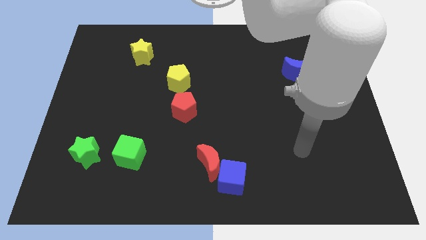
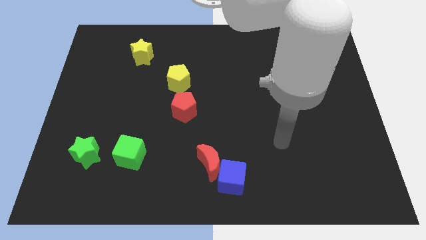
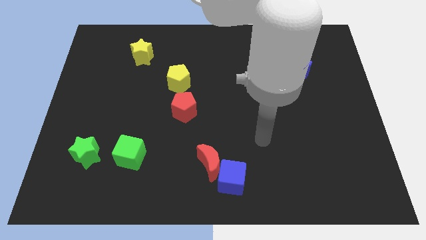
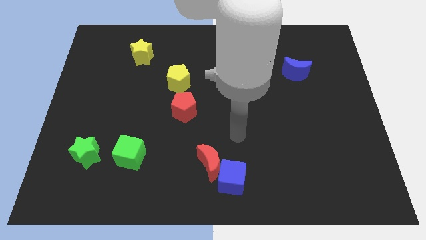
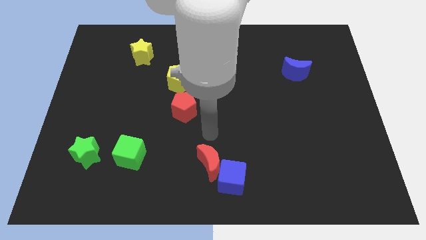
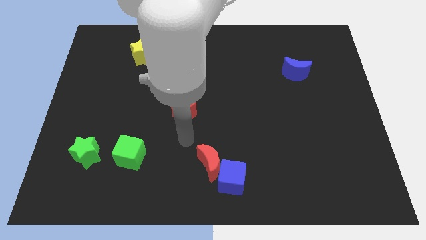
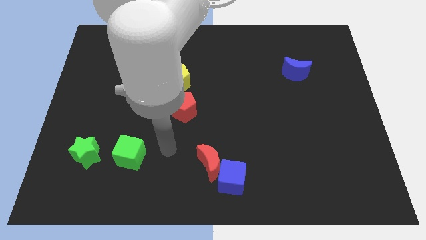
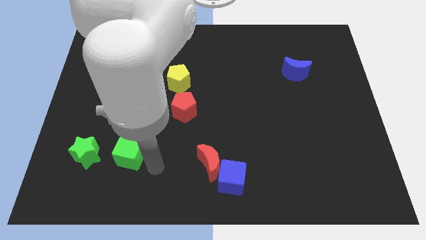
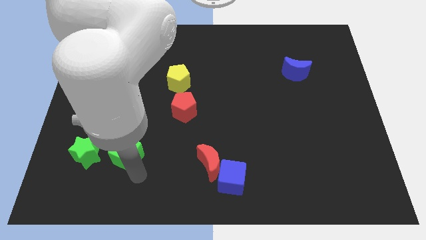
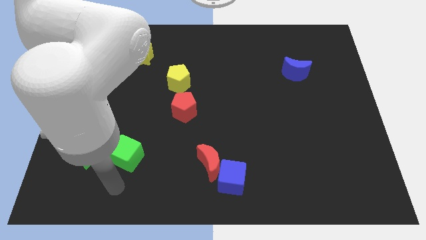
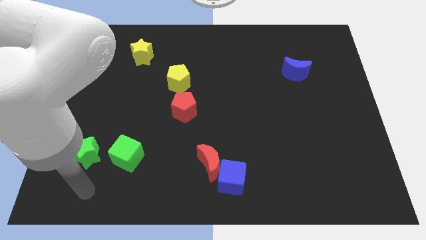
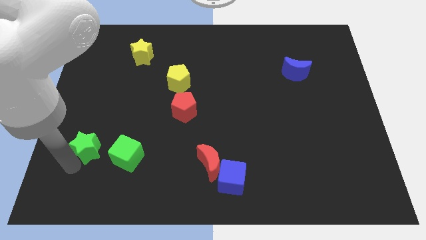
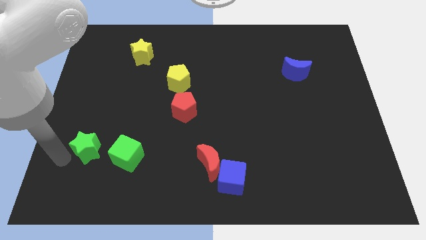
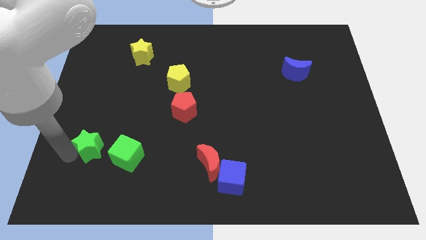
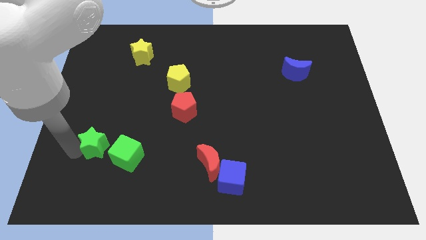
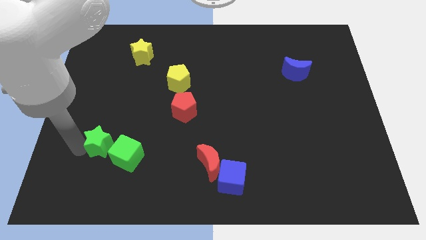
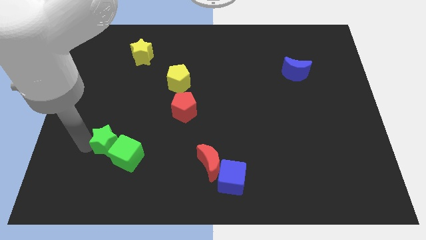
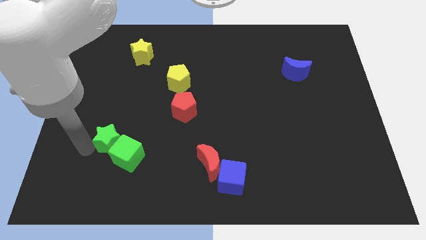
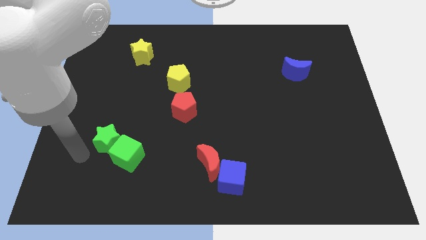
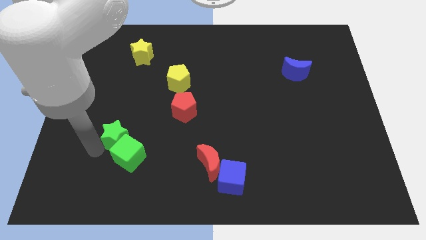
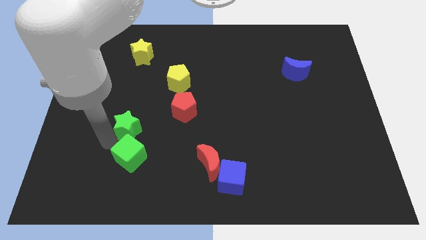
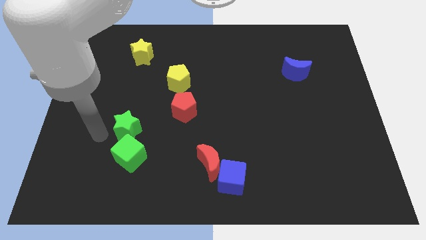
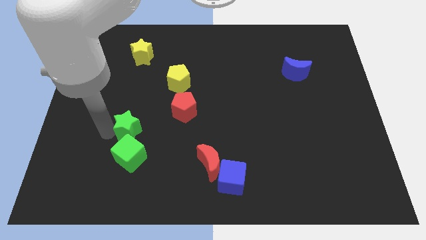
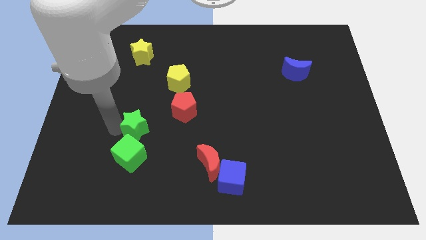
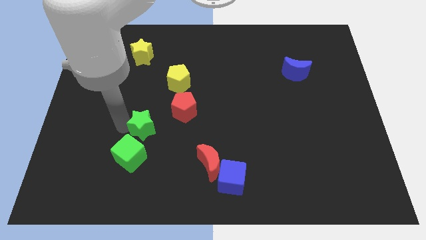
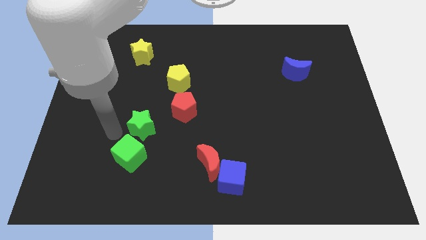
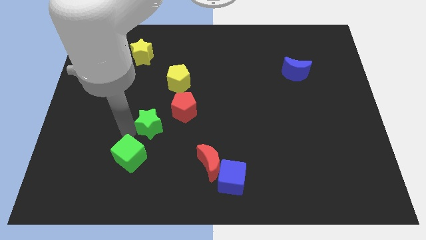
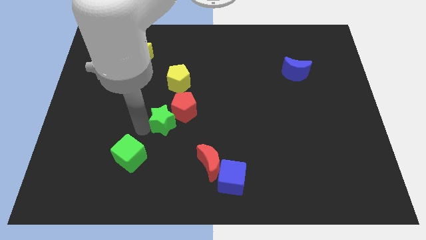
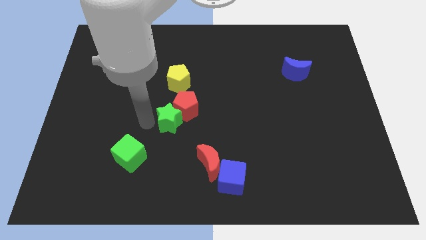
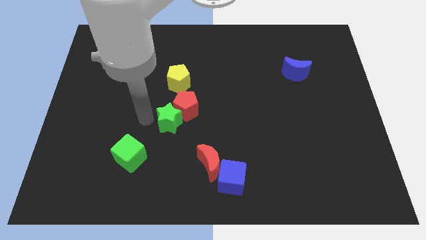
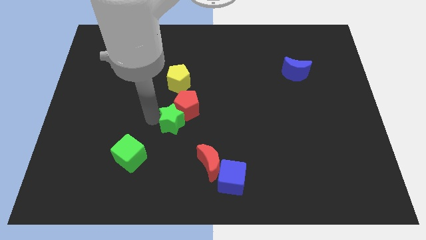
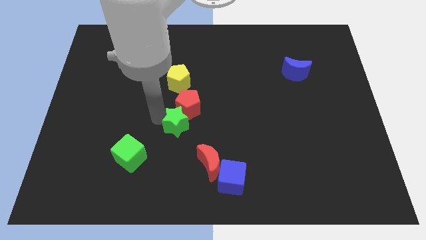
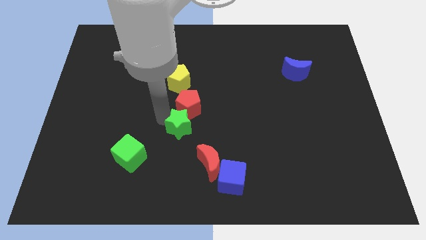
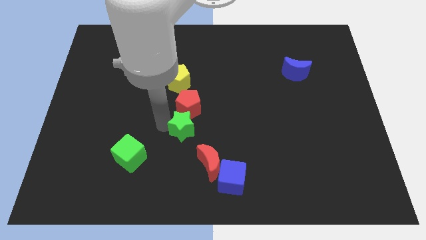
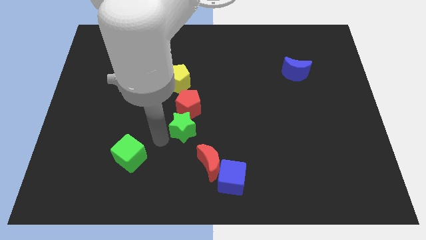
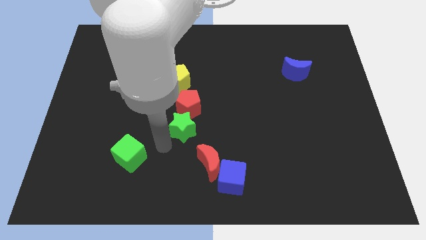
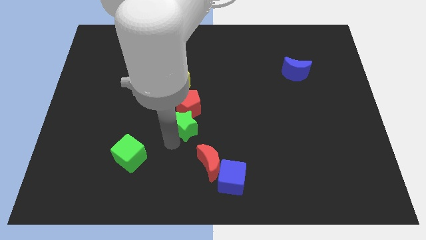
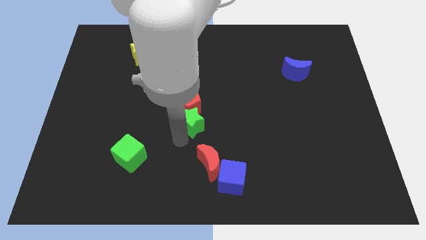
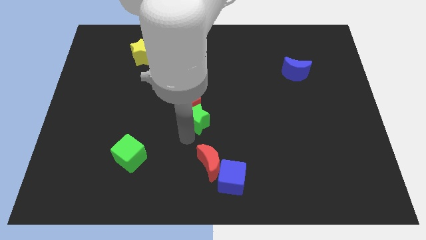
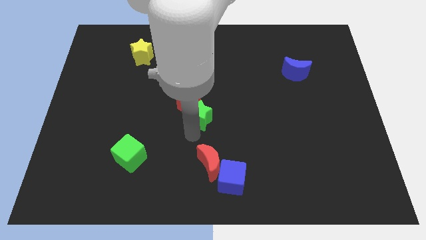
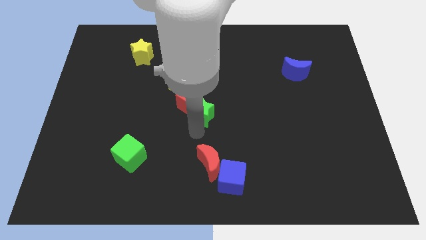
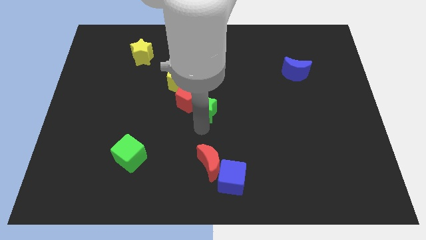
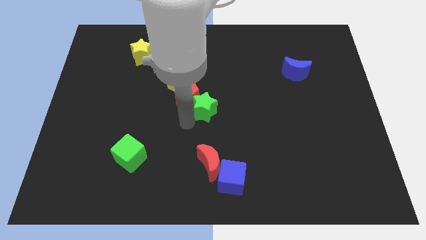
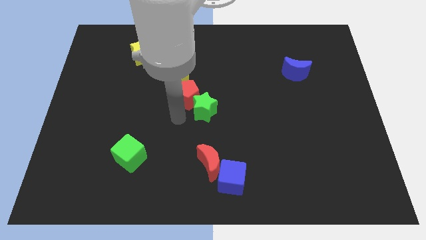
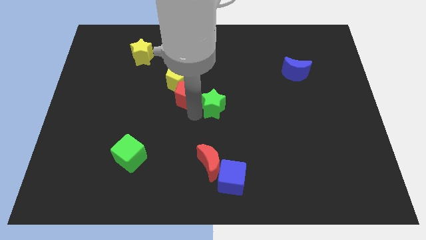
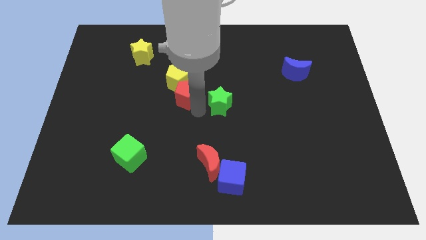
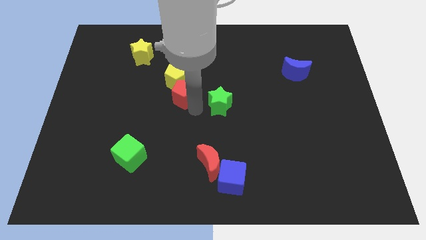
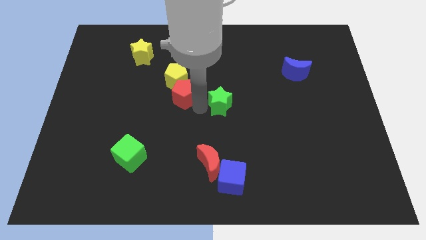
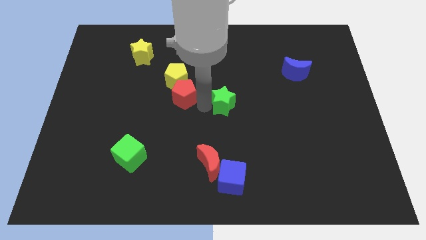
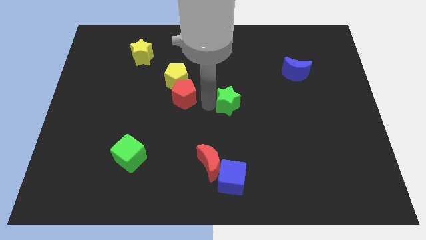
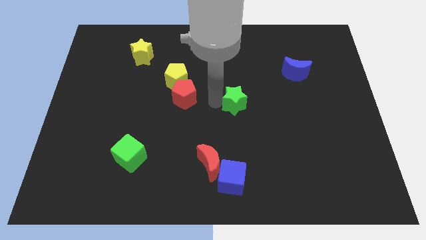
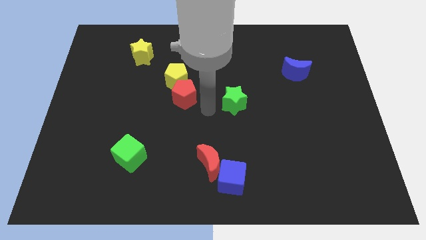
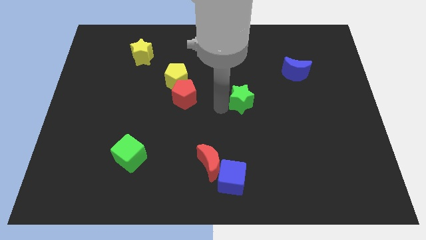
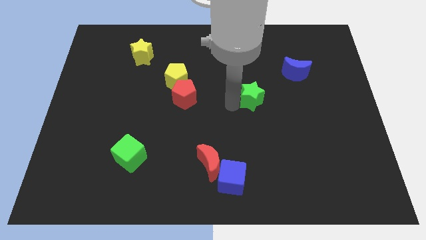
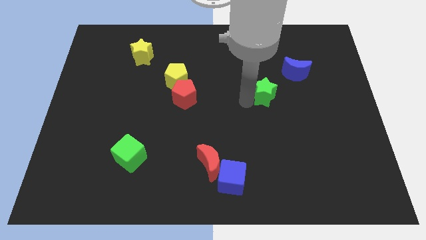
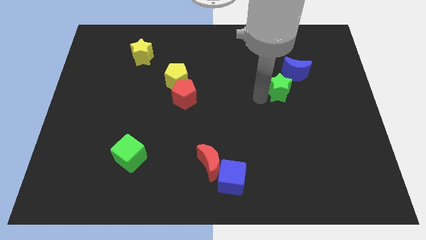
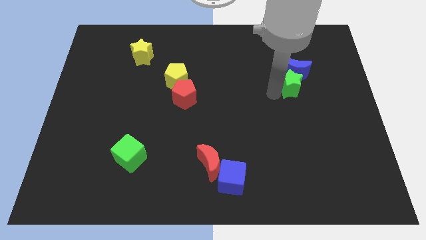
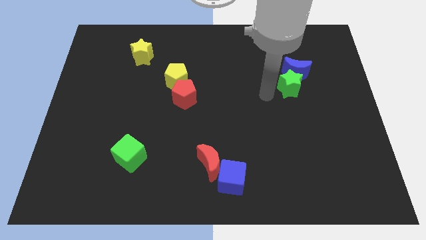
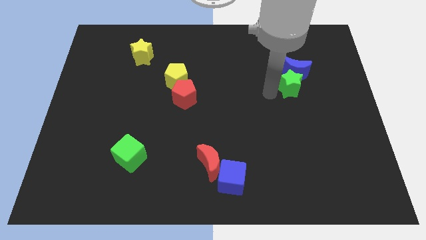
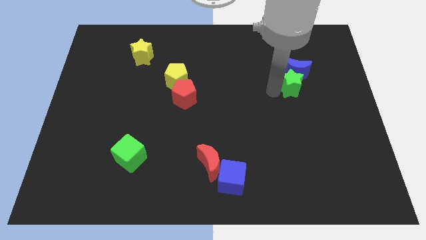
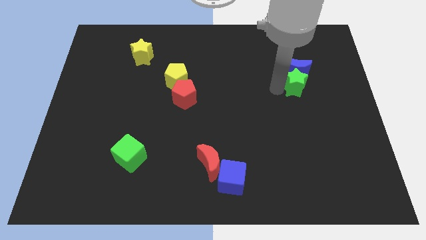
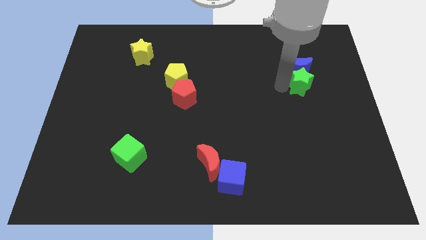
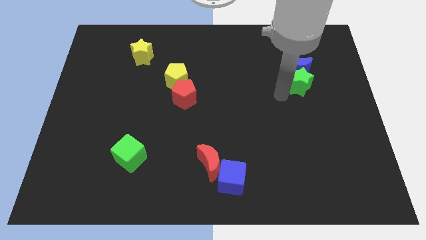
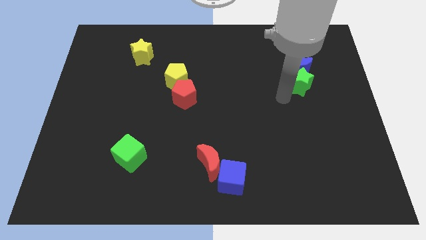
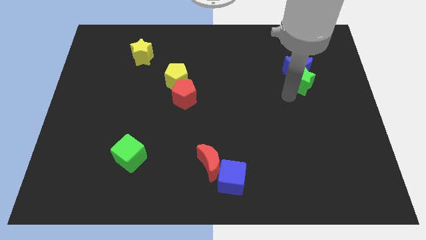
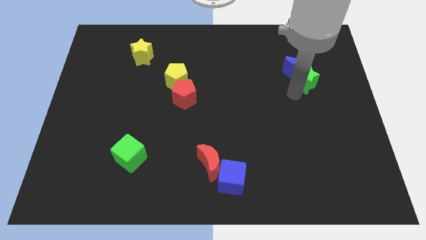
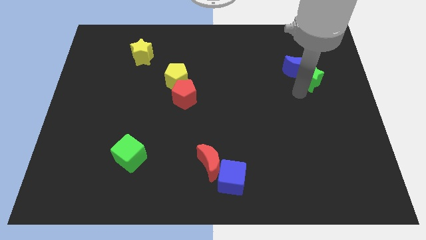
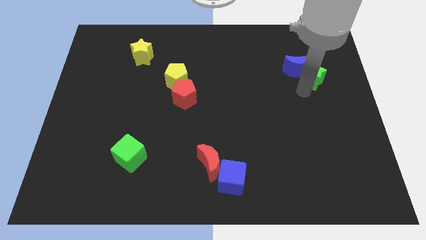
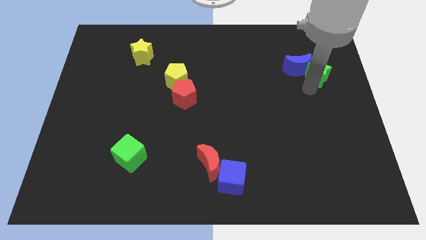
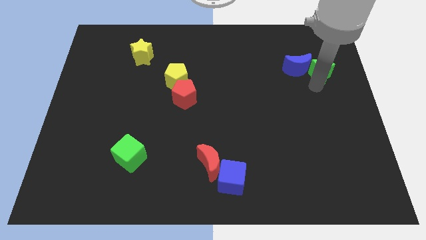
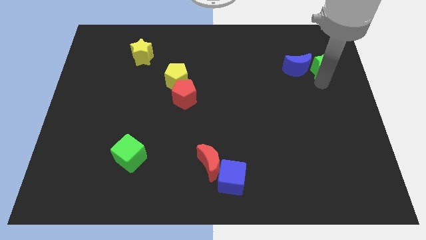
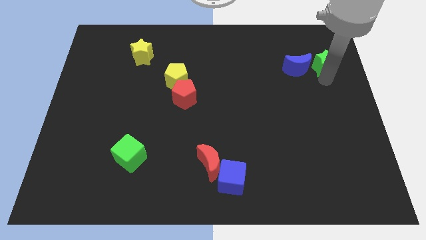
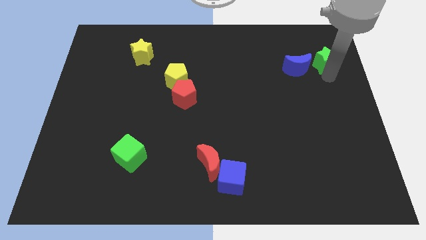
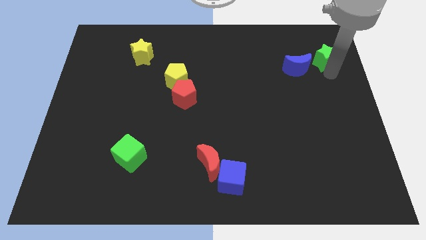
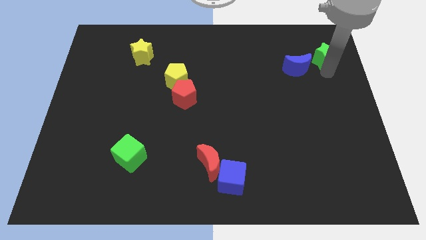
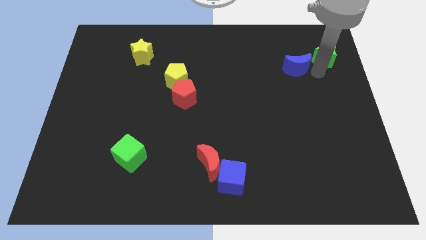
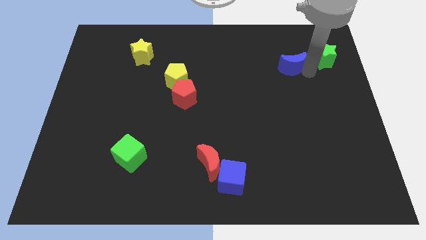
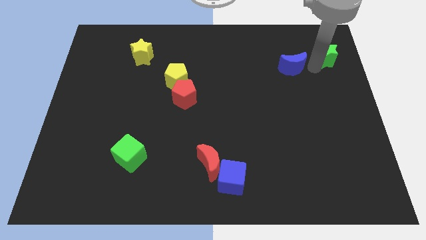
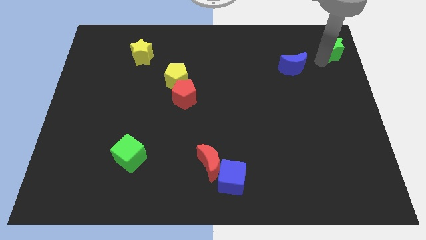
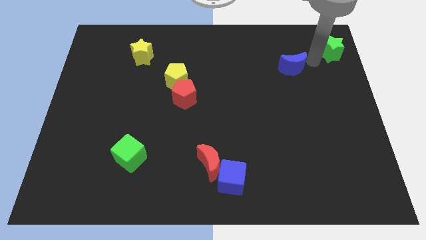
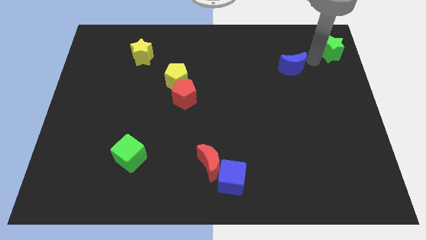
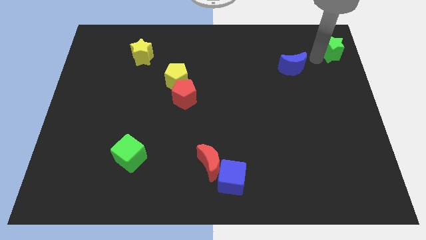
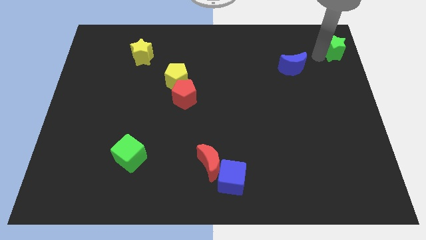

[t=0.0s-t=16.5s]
slide the green star to the top right
